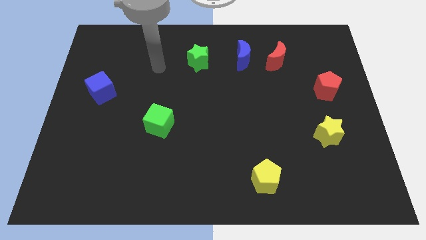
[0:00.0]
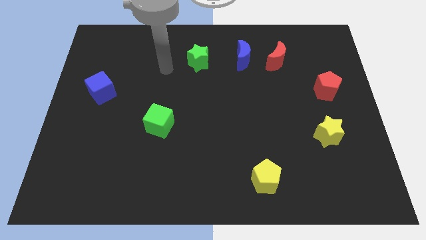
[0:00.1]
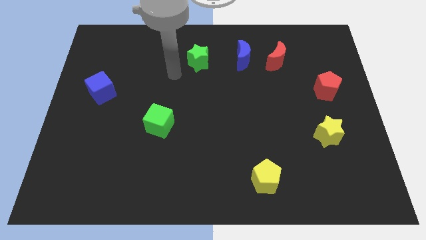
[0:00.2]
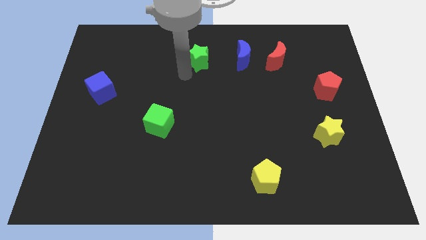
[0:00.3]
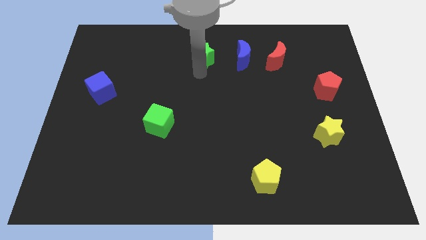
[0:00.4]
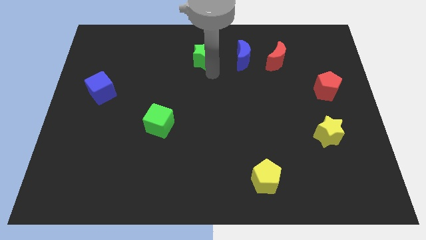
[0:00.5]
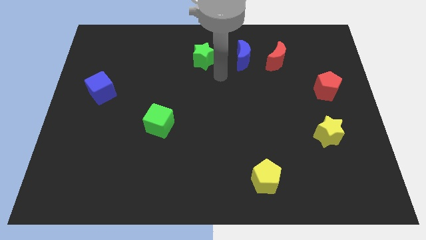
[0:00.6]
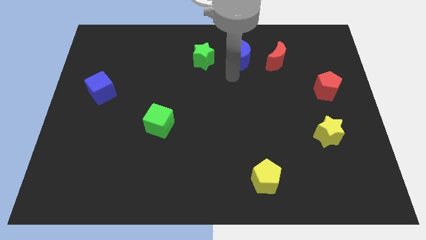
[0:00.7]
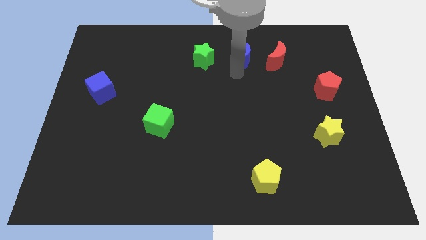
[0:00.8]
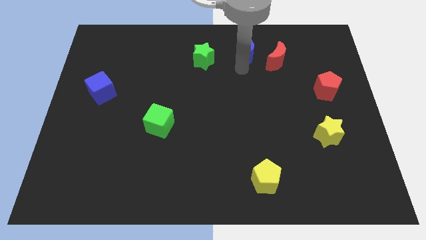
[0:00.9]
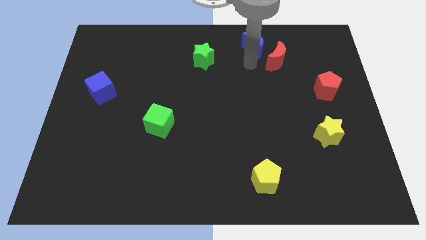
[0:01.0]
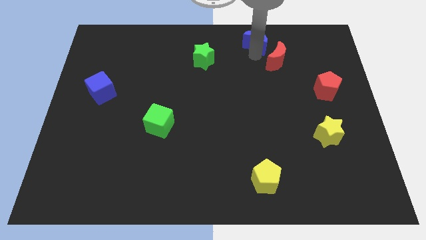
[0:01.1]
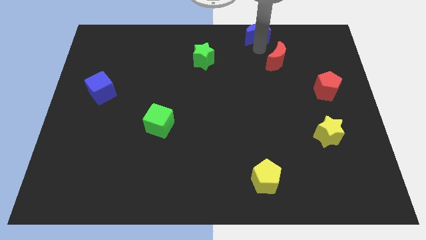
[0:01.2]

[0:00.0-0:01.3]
pull the red moon apart from the blue moon

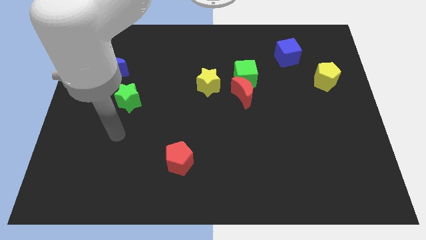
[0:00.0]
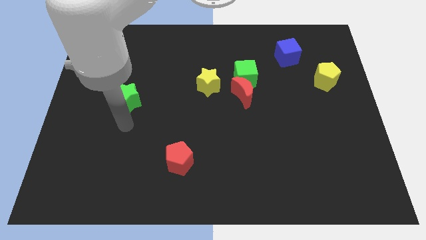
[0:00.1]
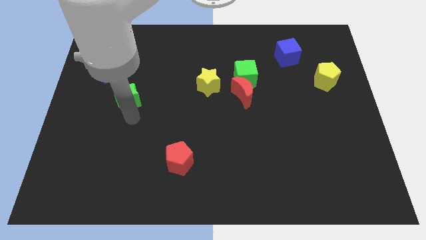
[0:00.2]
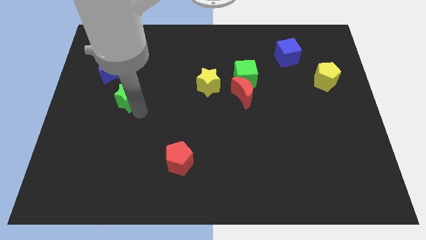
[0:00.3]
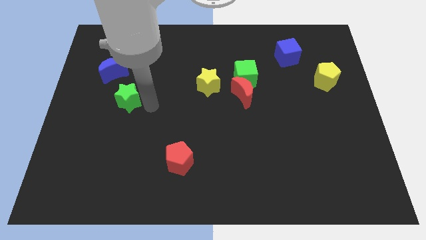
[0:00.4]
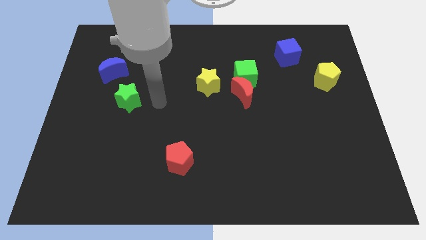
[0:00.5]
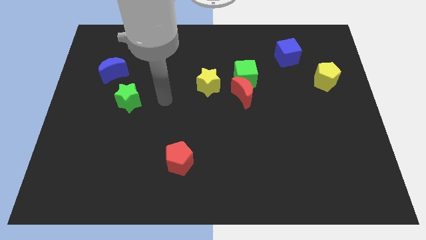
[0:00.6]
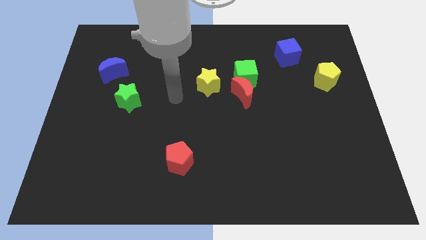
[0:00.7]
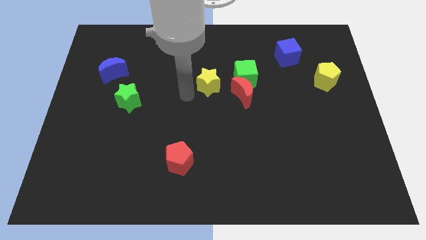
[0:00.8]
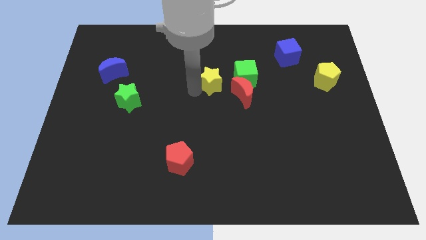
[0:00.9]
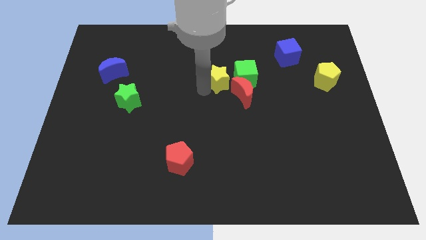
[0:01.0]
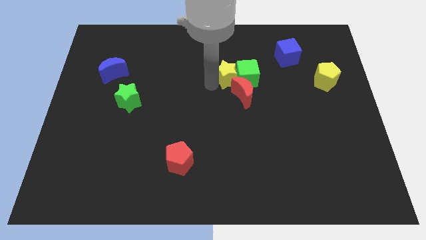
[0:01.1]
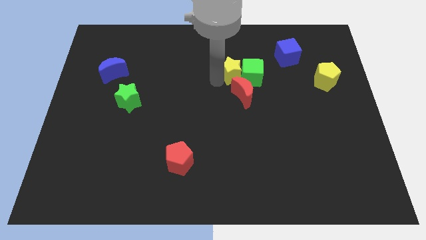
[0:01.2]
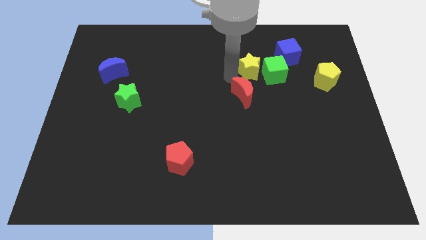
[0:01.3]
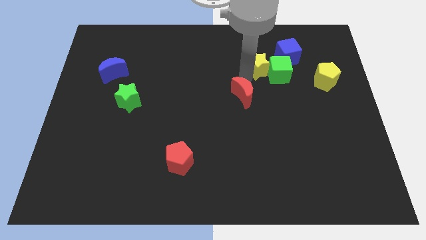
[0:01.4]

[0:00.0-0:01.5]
pull the red moon apart from the green cube and yellow star

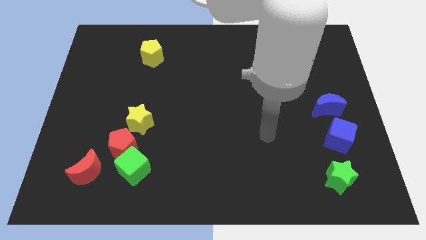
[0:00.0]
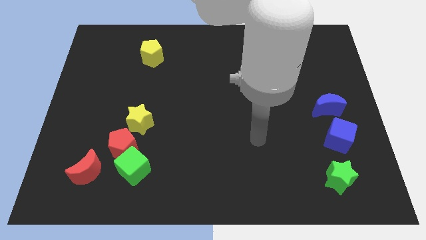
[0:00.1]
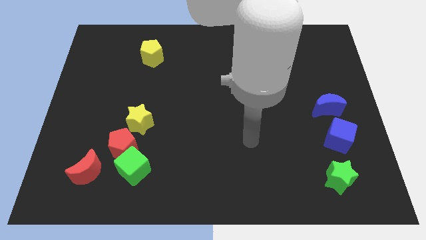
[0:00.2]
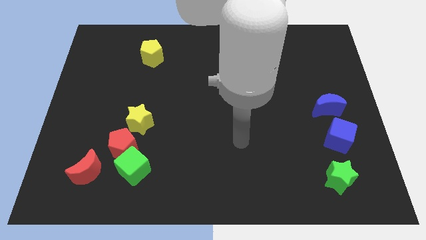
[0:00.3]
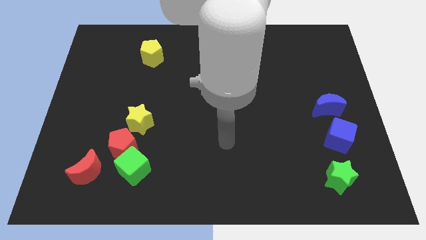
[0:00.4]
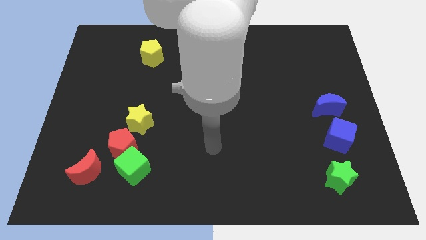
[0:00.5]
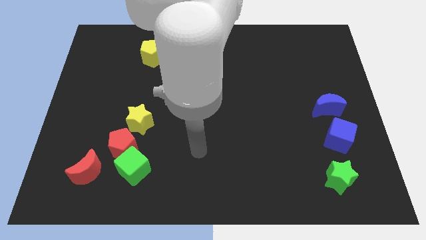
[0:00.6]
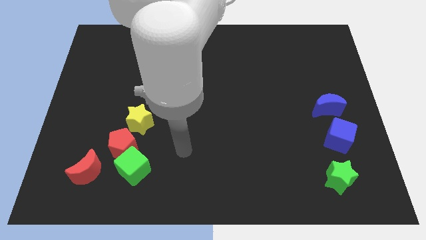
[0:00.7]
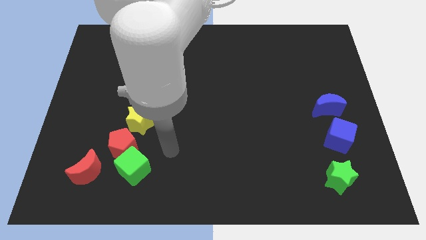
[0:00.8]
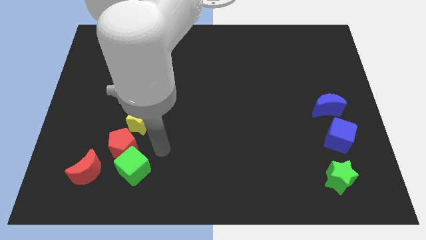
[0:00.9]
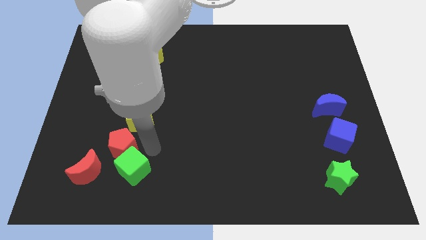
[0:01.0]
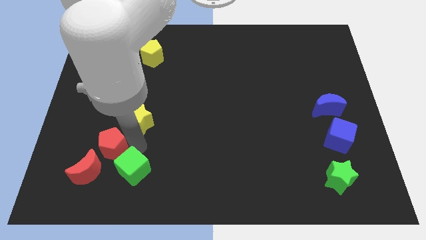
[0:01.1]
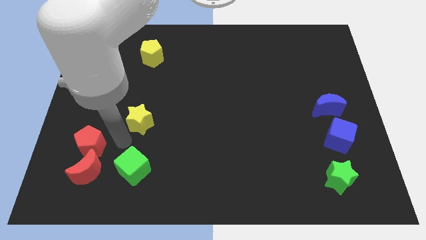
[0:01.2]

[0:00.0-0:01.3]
pull the yellow star apart from the red pentagon

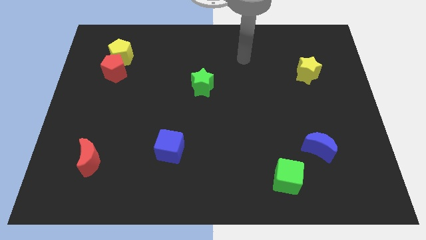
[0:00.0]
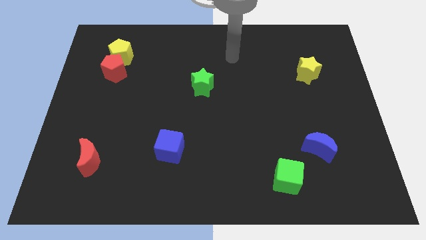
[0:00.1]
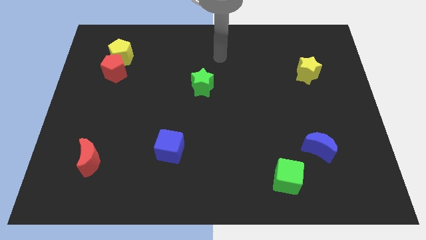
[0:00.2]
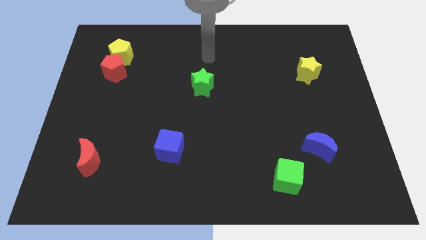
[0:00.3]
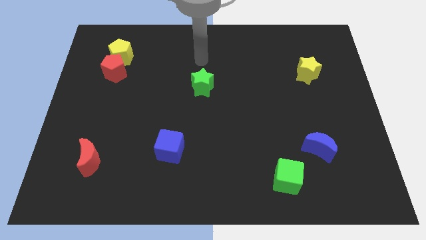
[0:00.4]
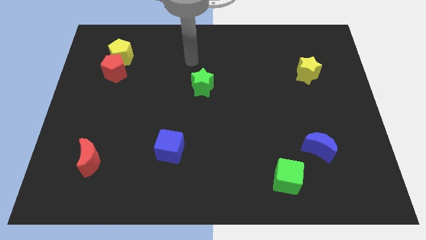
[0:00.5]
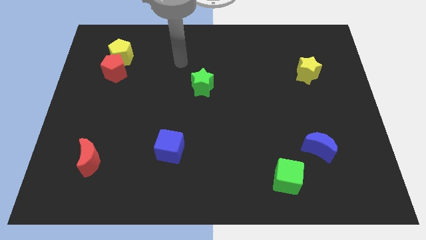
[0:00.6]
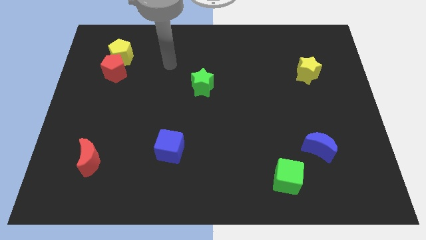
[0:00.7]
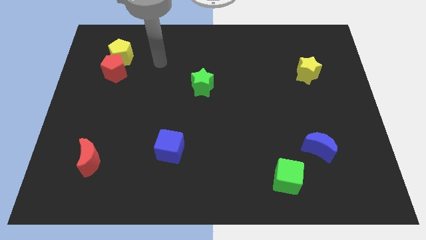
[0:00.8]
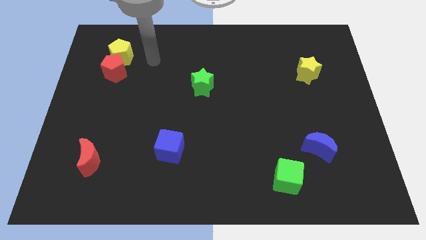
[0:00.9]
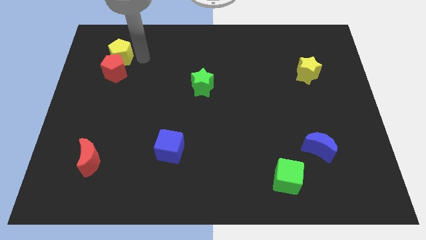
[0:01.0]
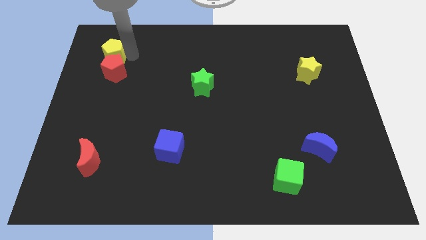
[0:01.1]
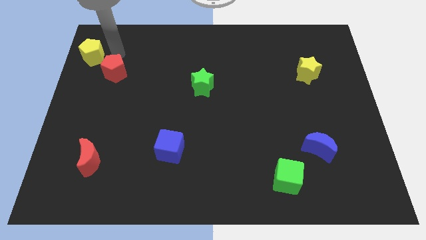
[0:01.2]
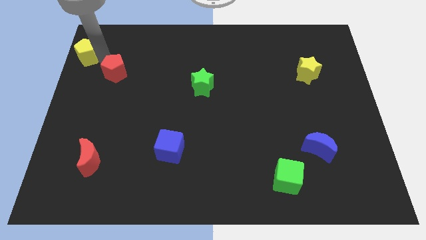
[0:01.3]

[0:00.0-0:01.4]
separate the red pentagon from the yellow pentagon

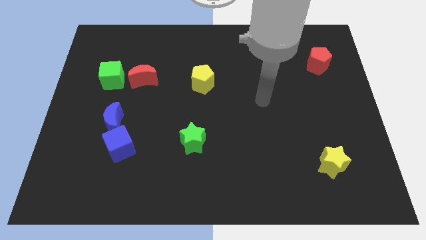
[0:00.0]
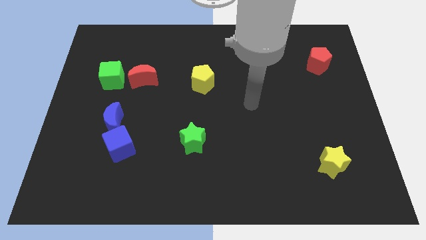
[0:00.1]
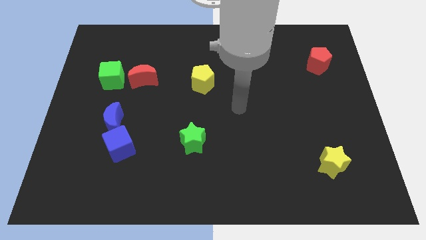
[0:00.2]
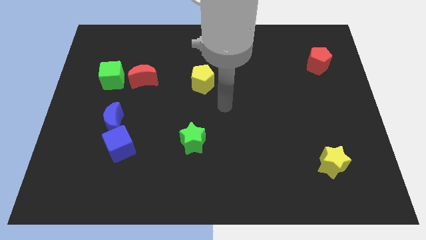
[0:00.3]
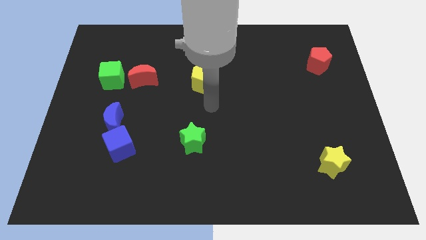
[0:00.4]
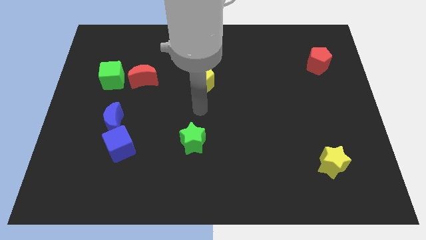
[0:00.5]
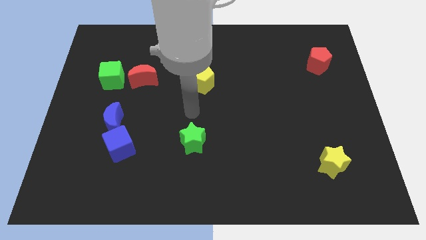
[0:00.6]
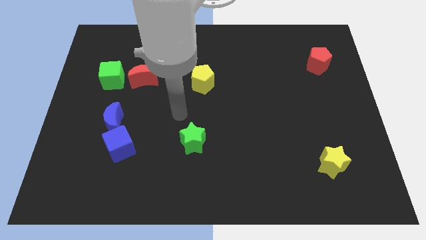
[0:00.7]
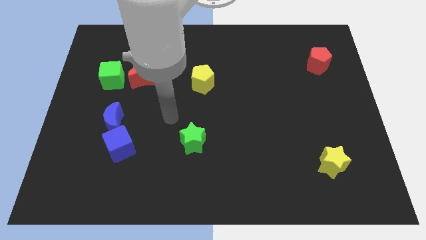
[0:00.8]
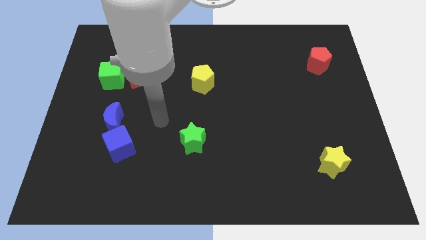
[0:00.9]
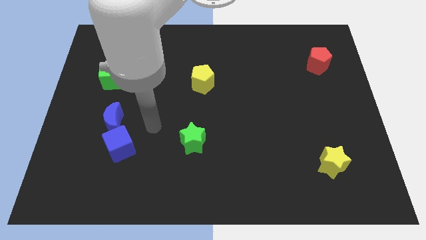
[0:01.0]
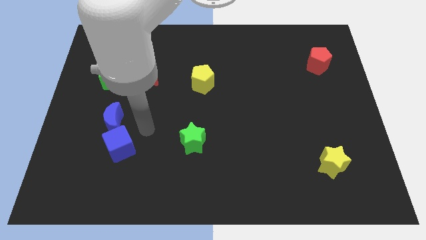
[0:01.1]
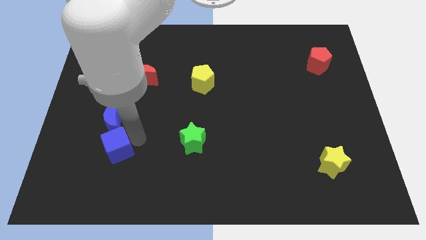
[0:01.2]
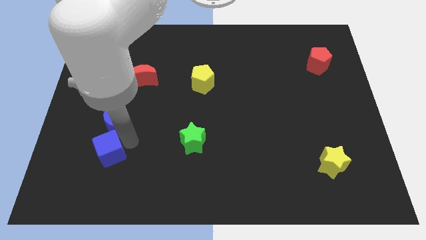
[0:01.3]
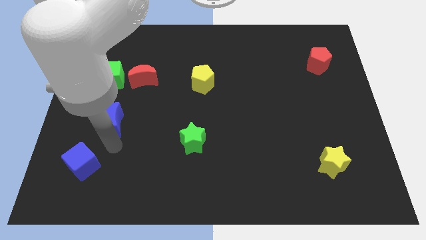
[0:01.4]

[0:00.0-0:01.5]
separate the blue moon from the blue cube

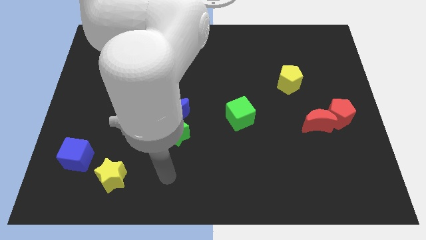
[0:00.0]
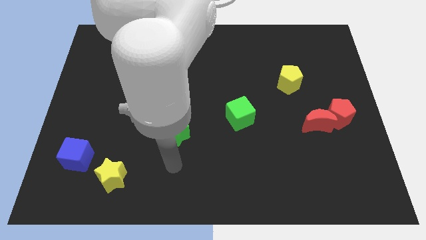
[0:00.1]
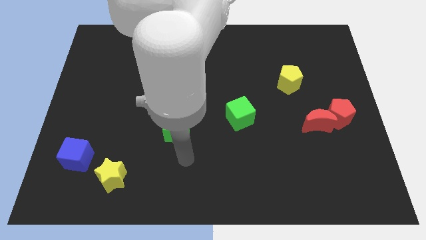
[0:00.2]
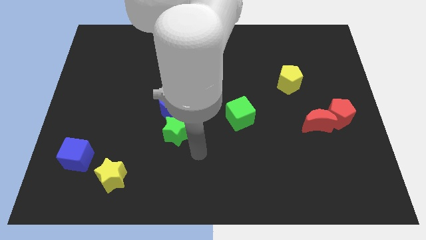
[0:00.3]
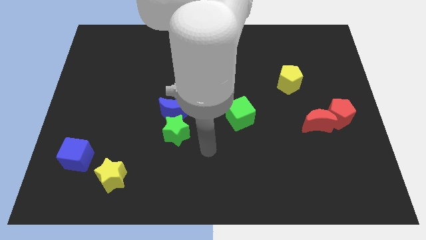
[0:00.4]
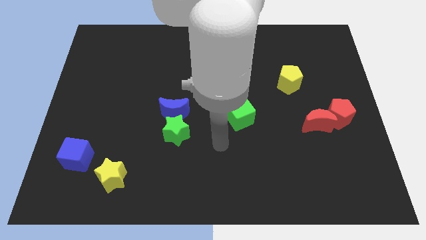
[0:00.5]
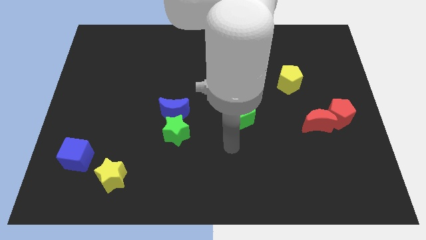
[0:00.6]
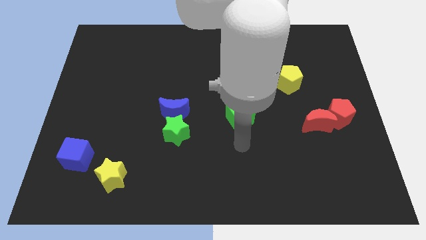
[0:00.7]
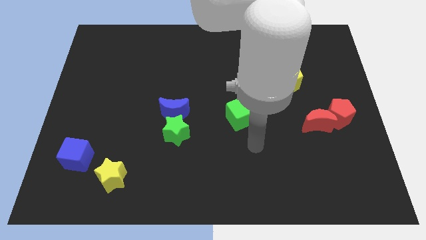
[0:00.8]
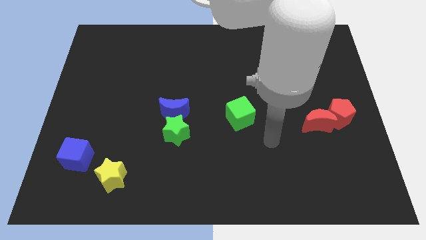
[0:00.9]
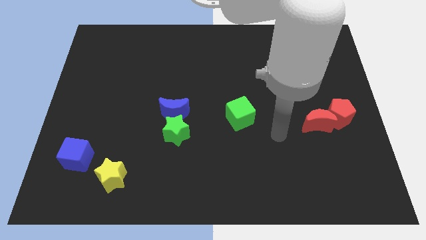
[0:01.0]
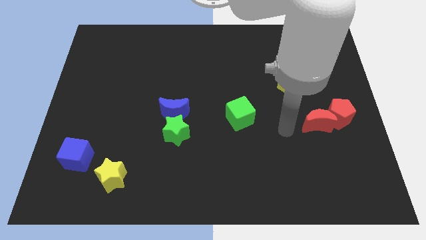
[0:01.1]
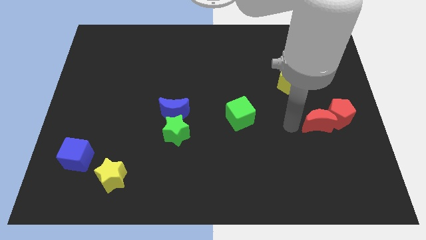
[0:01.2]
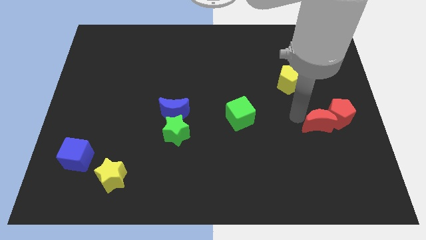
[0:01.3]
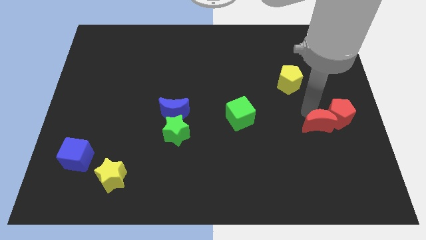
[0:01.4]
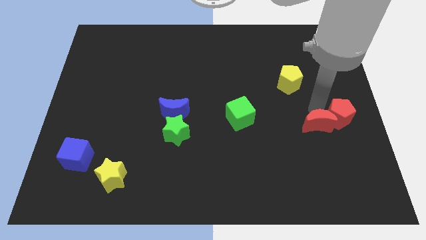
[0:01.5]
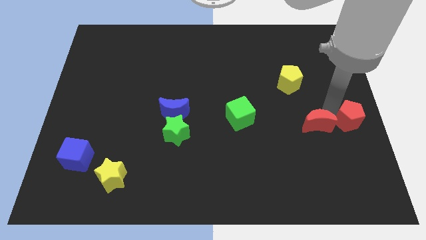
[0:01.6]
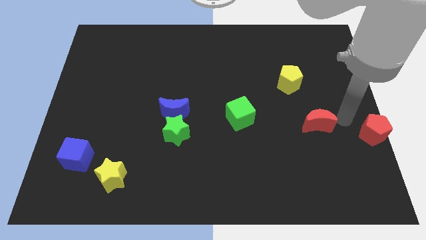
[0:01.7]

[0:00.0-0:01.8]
move the red moon away from the red pentagon

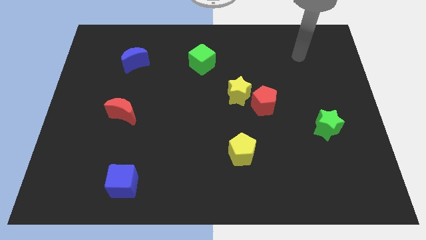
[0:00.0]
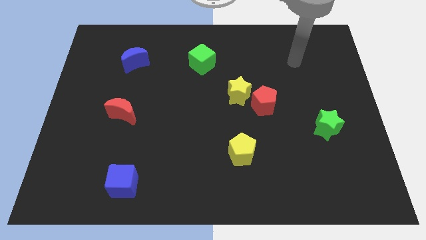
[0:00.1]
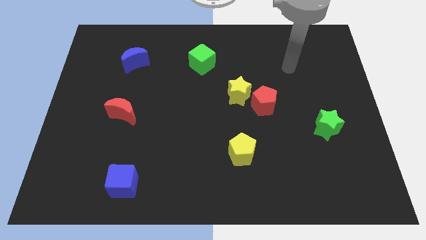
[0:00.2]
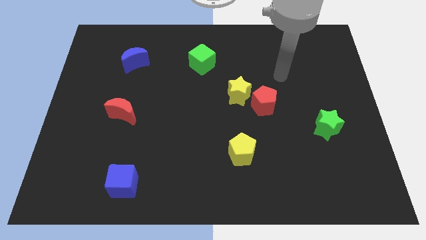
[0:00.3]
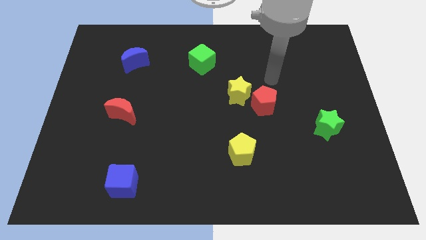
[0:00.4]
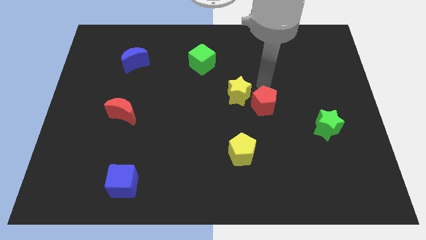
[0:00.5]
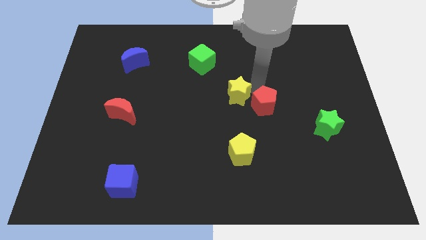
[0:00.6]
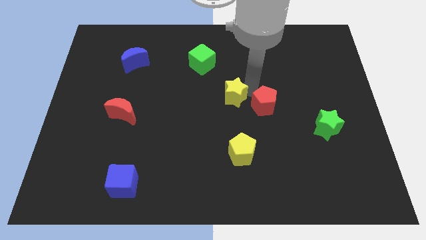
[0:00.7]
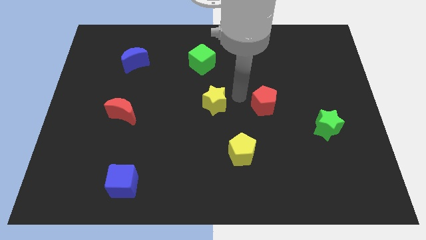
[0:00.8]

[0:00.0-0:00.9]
separate the red pentagon from the yellow star
